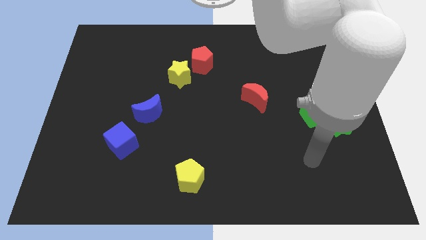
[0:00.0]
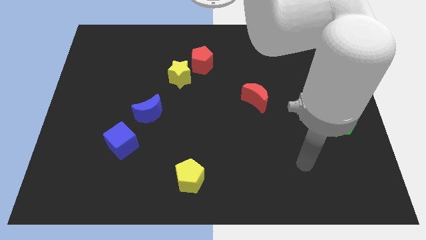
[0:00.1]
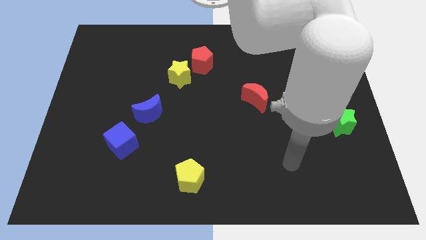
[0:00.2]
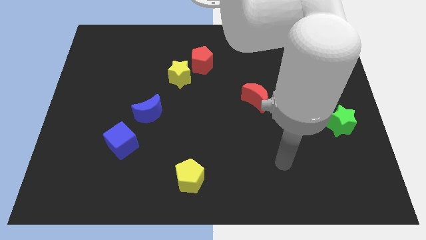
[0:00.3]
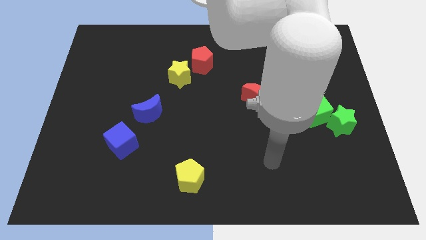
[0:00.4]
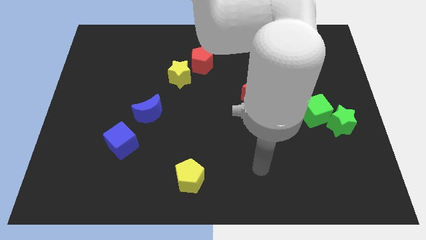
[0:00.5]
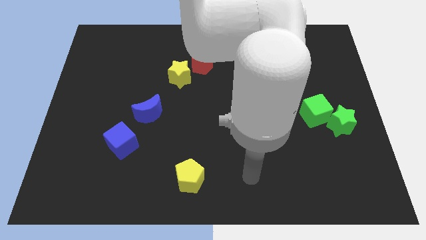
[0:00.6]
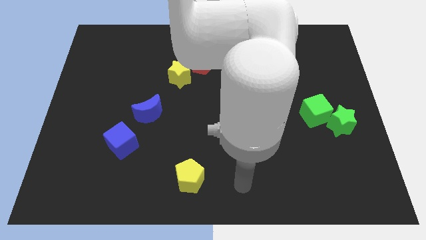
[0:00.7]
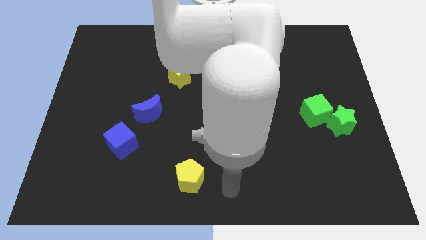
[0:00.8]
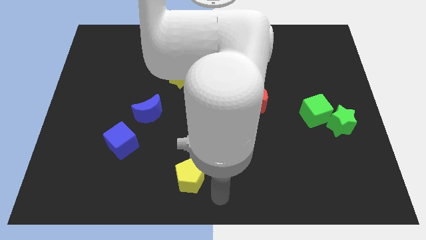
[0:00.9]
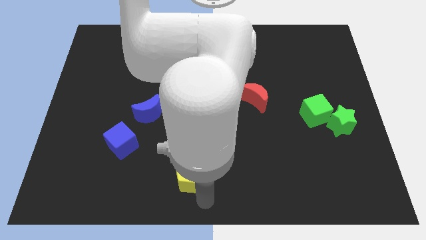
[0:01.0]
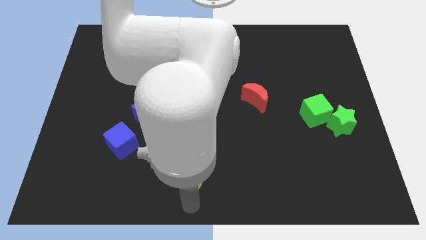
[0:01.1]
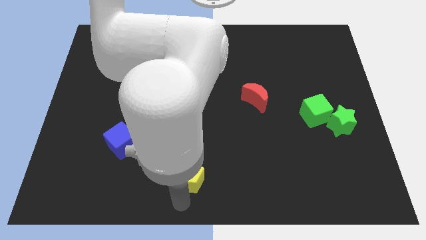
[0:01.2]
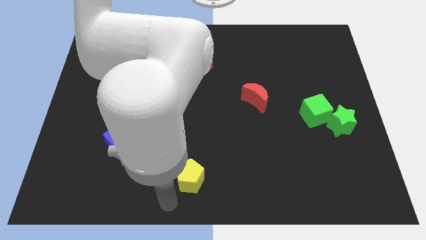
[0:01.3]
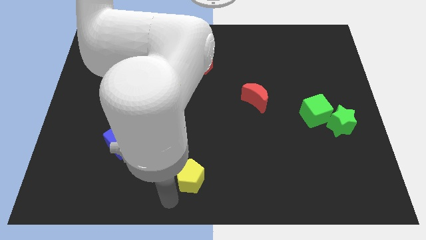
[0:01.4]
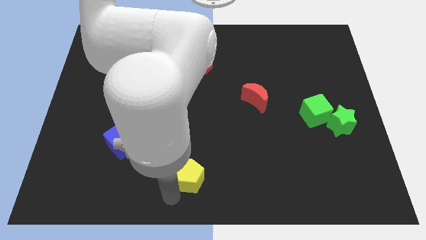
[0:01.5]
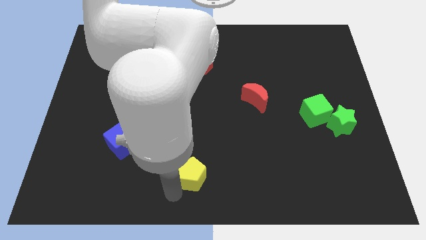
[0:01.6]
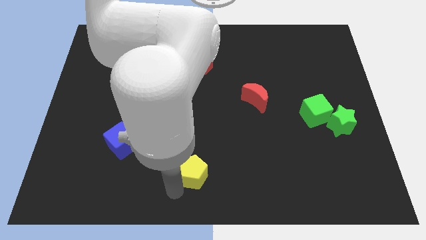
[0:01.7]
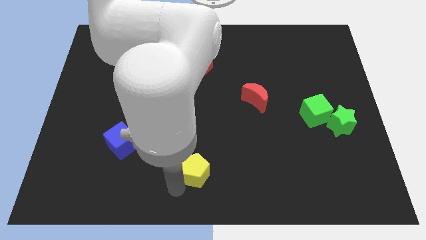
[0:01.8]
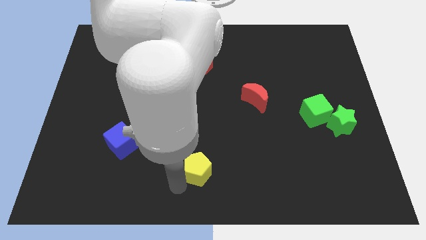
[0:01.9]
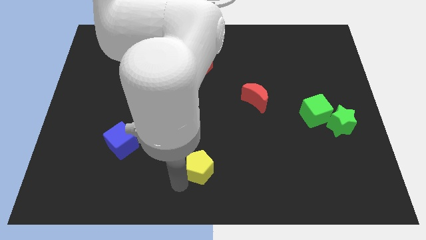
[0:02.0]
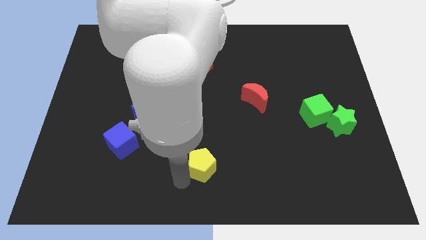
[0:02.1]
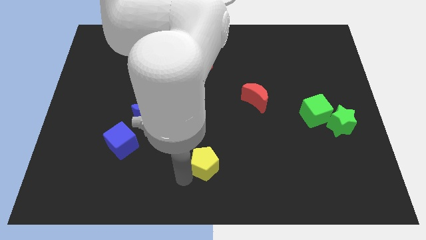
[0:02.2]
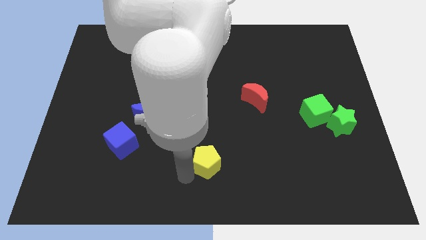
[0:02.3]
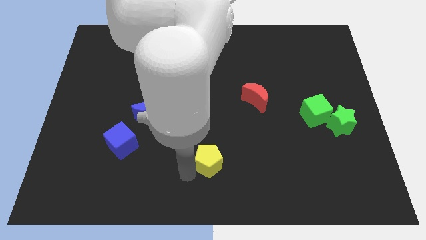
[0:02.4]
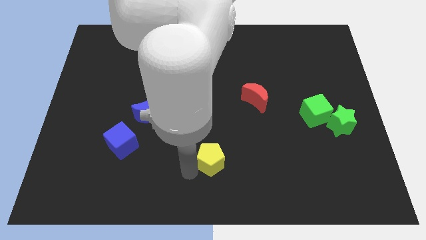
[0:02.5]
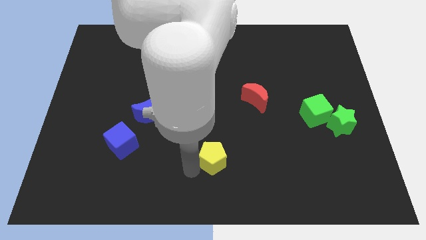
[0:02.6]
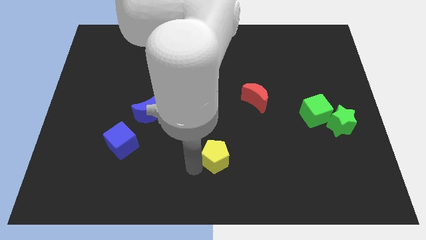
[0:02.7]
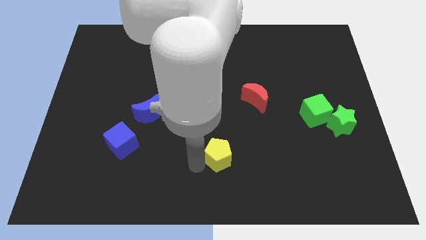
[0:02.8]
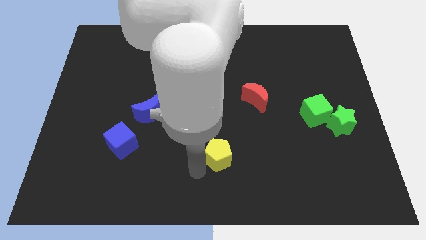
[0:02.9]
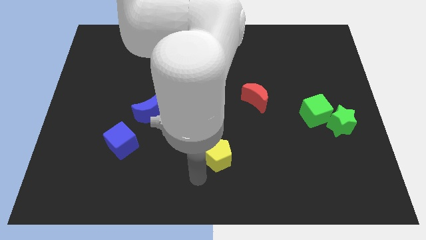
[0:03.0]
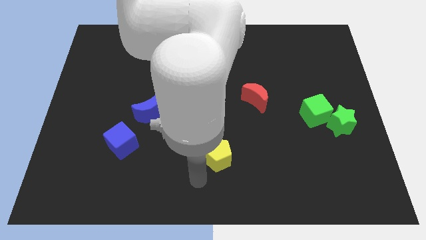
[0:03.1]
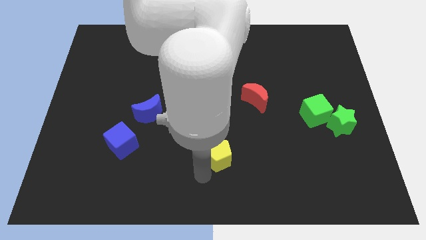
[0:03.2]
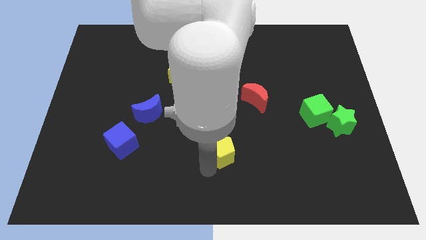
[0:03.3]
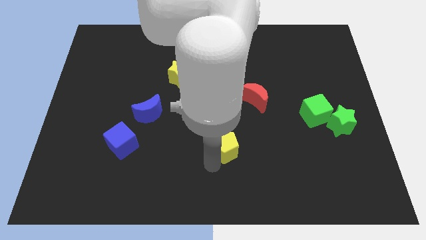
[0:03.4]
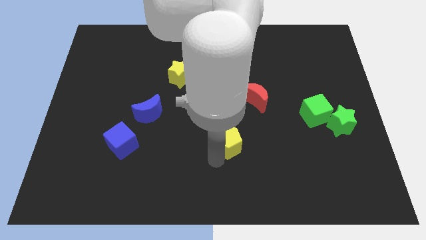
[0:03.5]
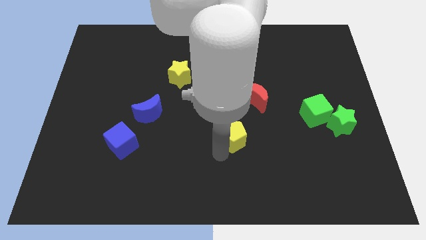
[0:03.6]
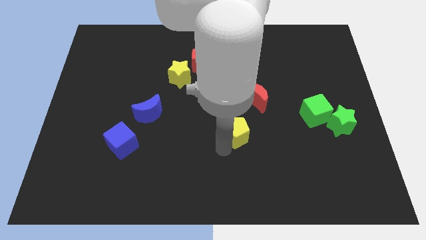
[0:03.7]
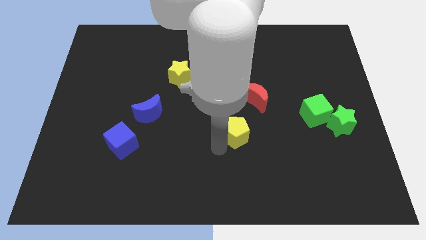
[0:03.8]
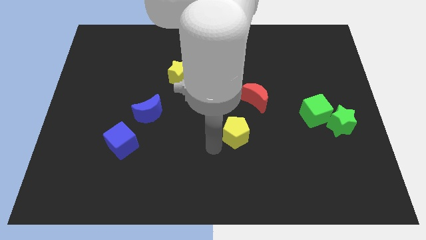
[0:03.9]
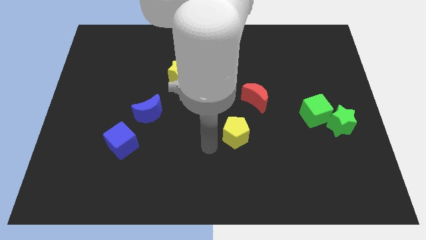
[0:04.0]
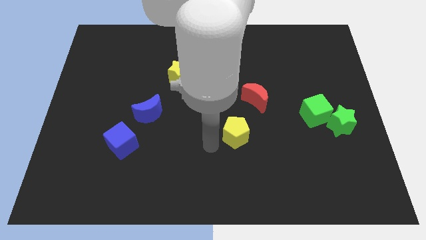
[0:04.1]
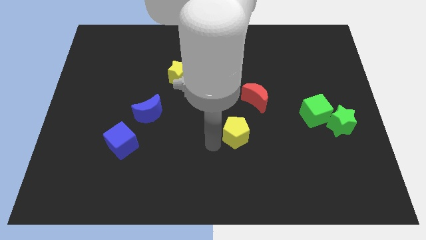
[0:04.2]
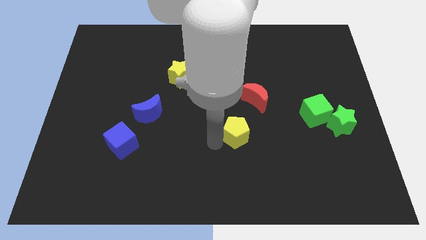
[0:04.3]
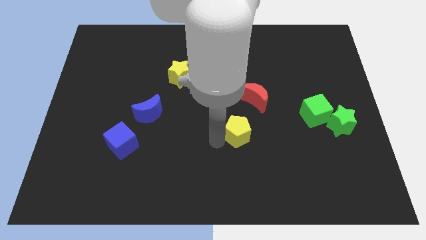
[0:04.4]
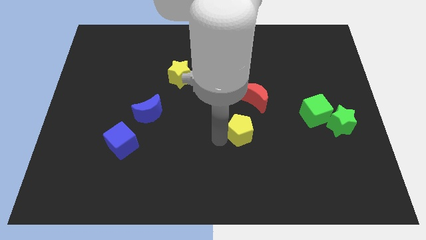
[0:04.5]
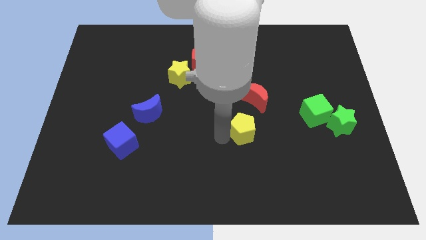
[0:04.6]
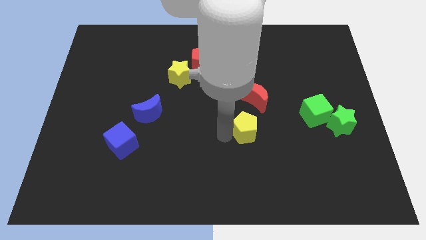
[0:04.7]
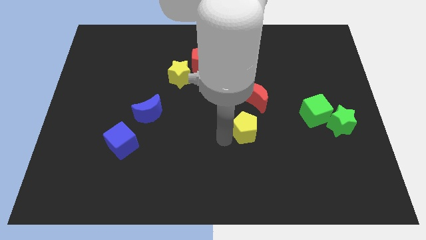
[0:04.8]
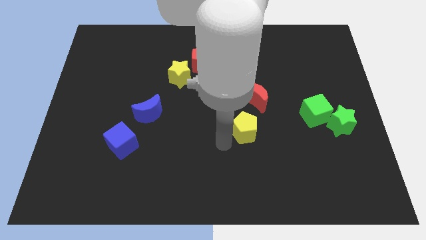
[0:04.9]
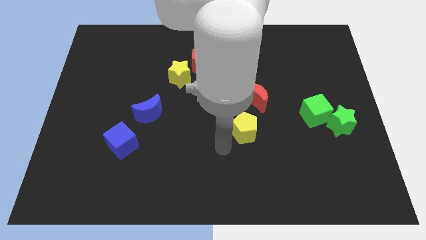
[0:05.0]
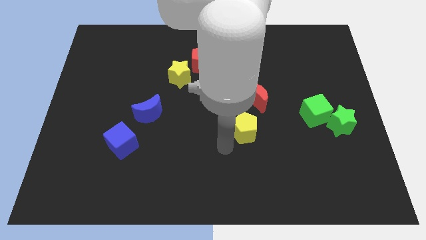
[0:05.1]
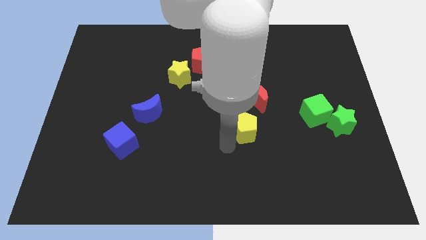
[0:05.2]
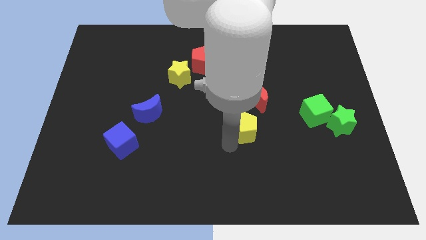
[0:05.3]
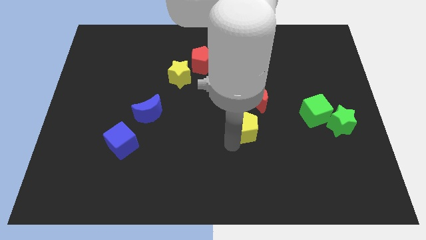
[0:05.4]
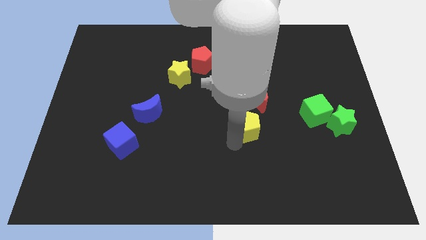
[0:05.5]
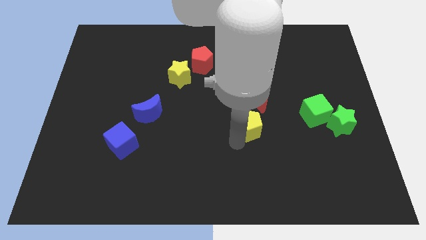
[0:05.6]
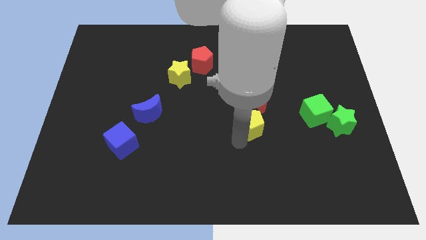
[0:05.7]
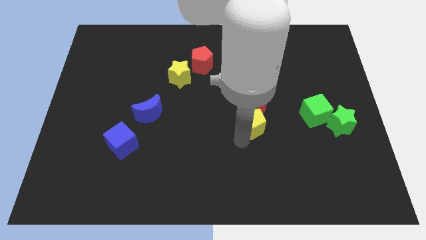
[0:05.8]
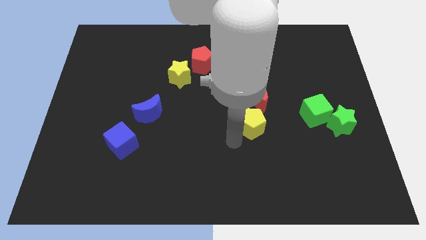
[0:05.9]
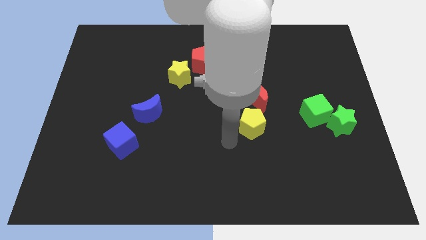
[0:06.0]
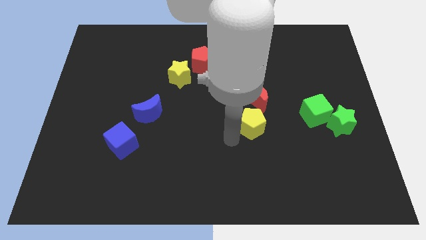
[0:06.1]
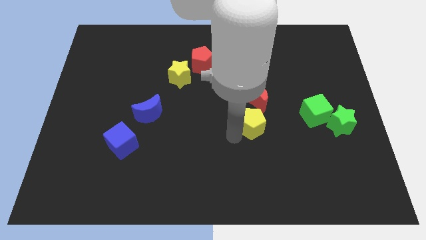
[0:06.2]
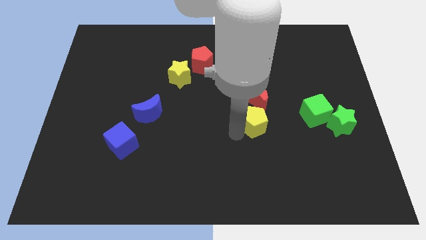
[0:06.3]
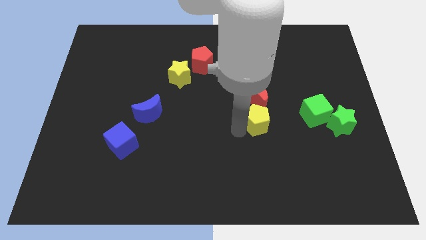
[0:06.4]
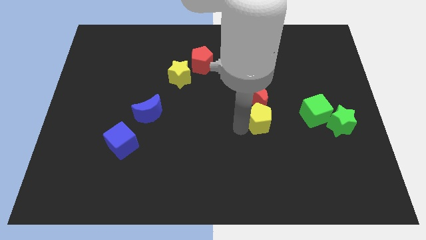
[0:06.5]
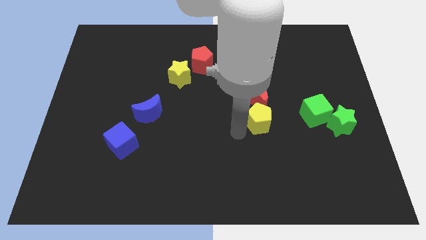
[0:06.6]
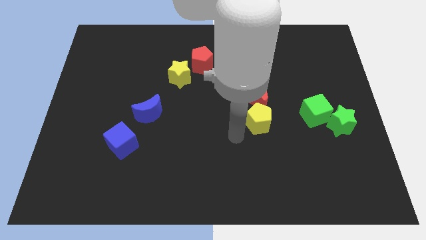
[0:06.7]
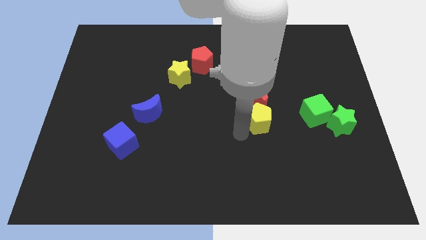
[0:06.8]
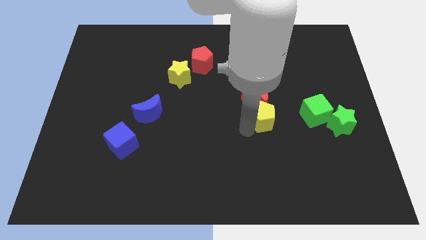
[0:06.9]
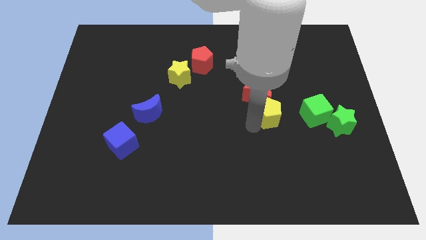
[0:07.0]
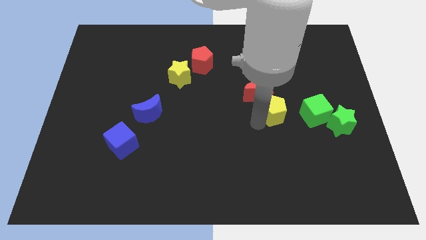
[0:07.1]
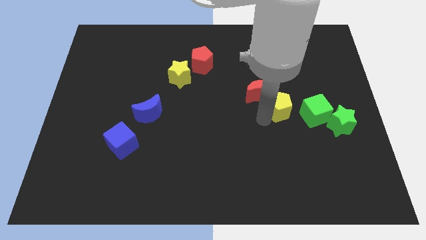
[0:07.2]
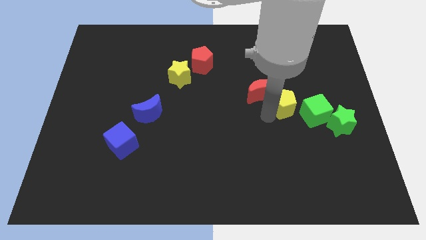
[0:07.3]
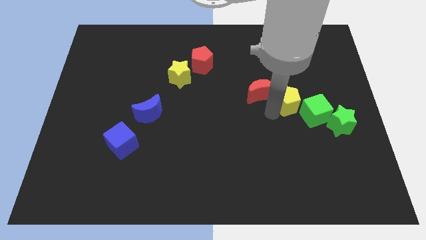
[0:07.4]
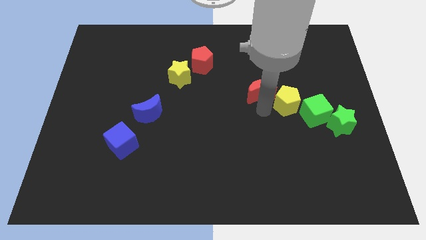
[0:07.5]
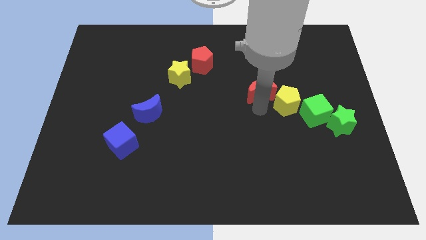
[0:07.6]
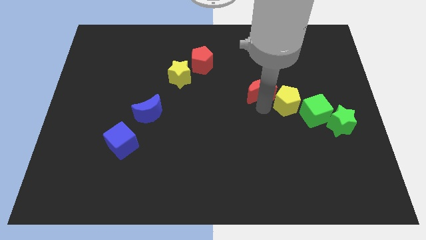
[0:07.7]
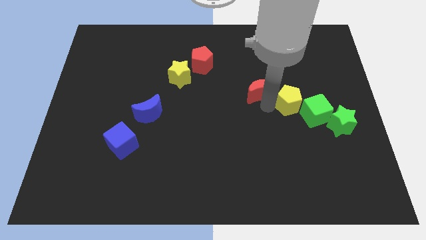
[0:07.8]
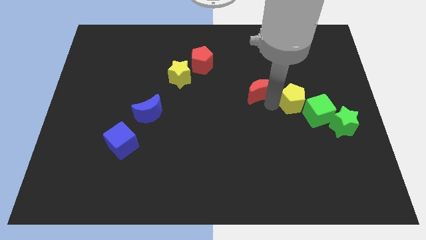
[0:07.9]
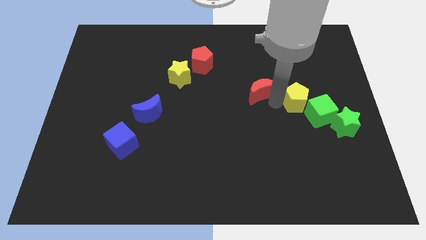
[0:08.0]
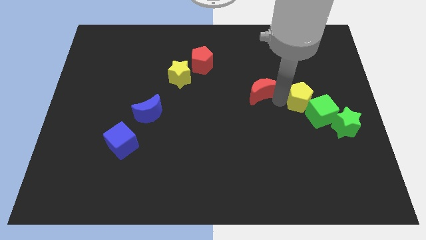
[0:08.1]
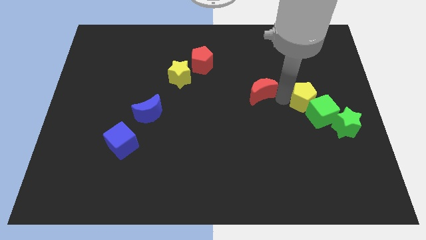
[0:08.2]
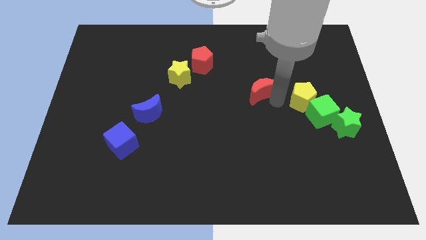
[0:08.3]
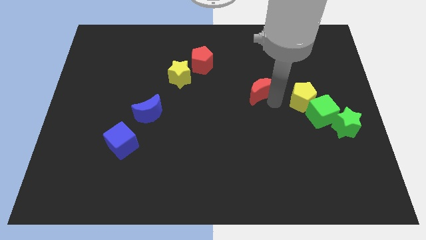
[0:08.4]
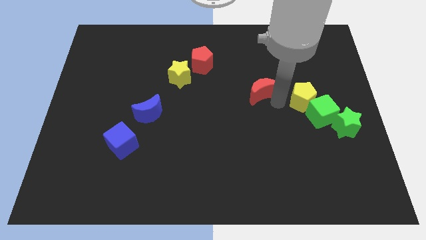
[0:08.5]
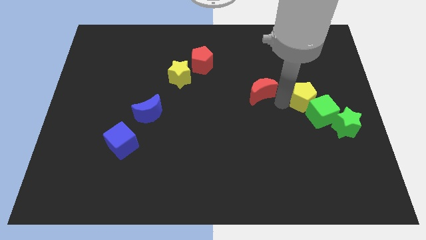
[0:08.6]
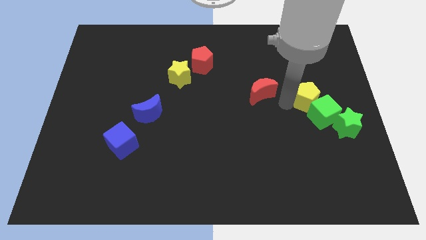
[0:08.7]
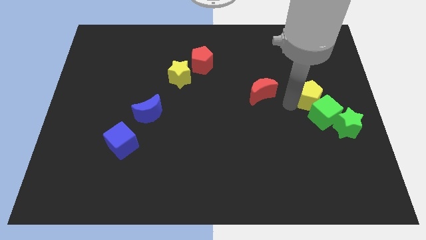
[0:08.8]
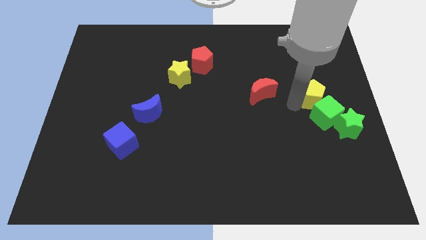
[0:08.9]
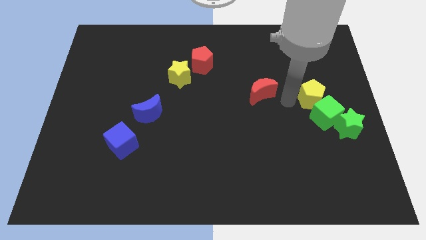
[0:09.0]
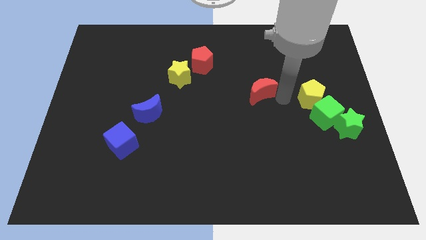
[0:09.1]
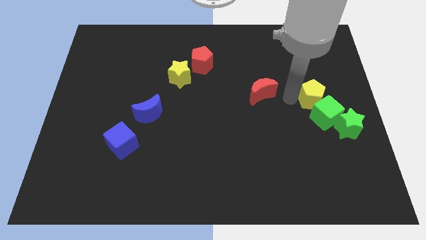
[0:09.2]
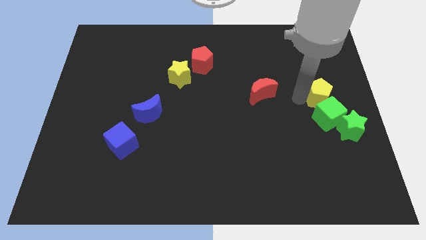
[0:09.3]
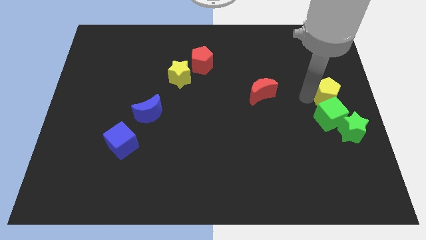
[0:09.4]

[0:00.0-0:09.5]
push the yellow pentagon diagonally up and to the right of the green cube
